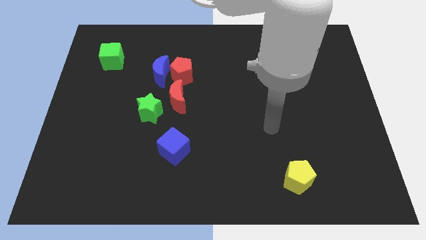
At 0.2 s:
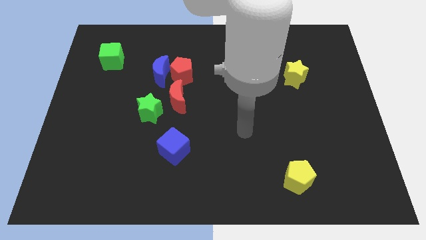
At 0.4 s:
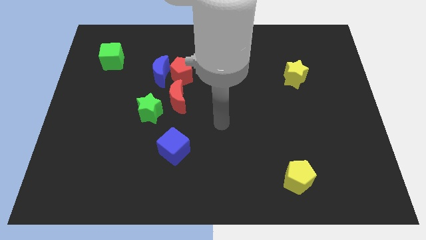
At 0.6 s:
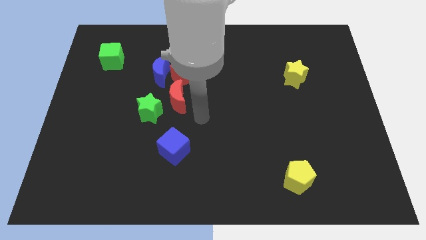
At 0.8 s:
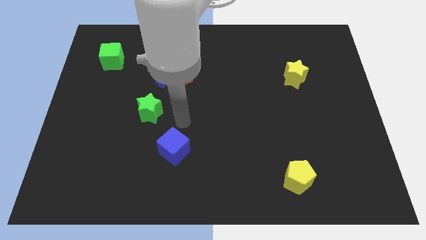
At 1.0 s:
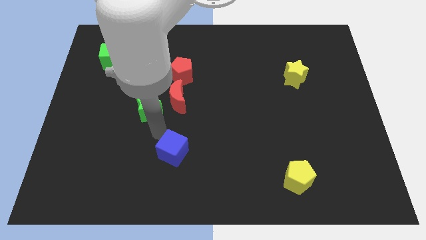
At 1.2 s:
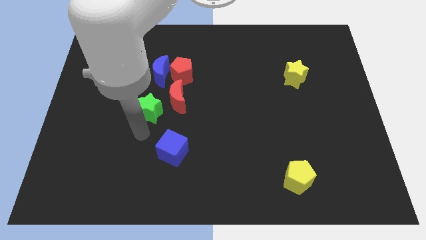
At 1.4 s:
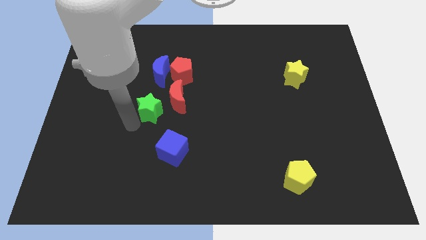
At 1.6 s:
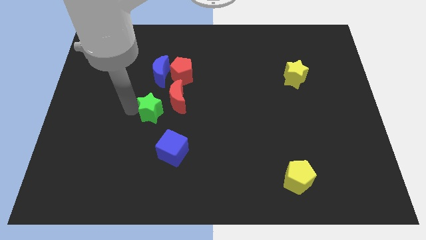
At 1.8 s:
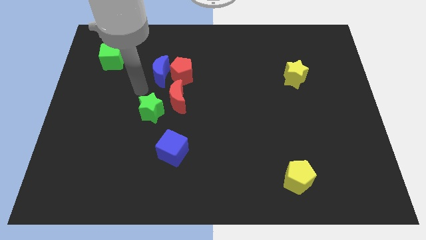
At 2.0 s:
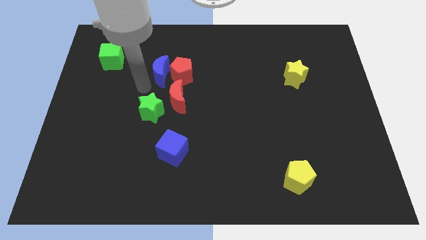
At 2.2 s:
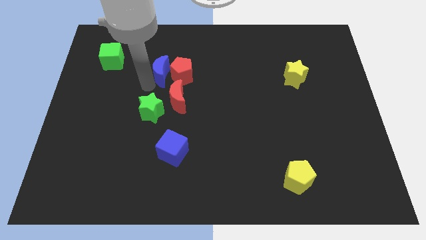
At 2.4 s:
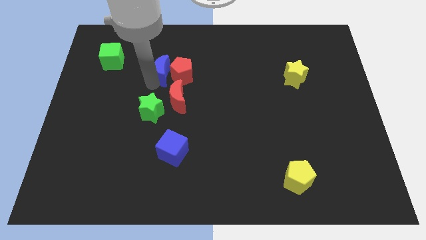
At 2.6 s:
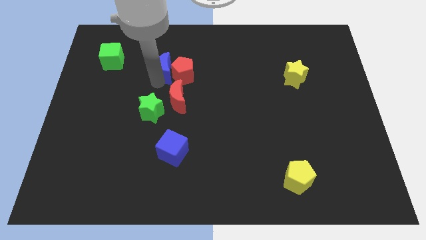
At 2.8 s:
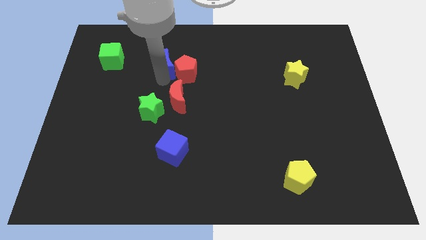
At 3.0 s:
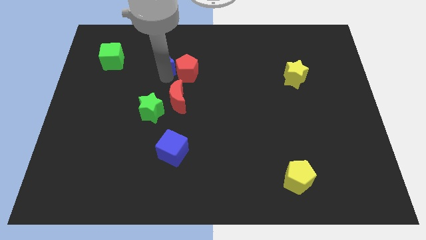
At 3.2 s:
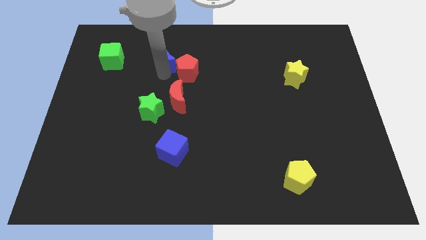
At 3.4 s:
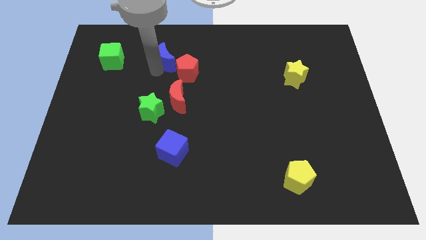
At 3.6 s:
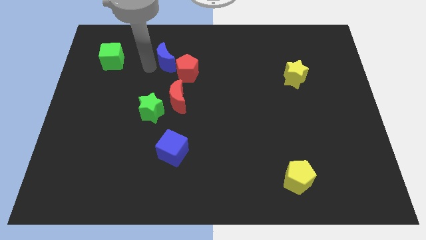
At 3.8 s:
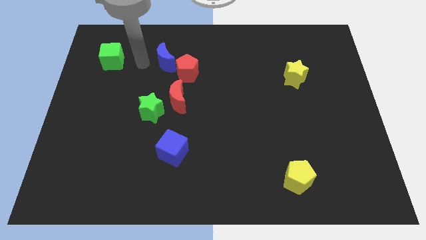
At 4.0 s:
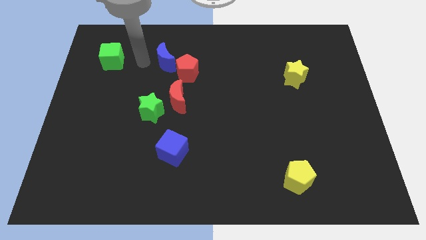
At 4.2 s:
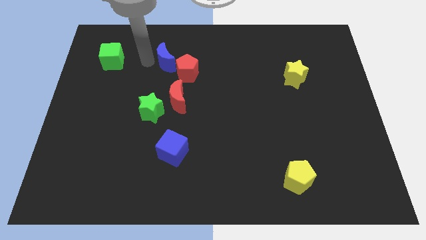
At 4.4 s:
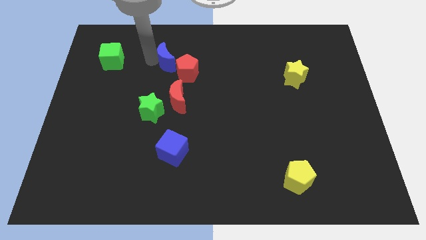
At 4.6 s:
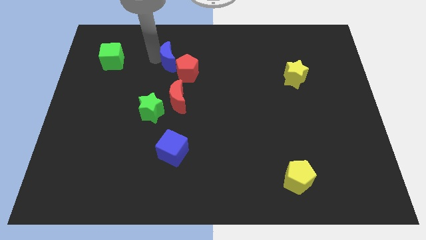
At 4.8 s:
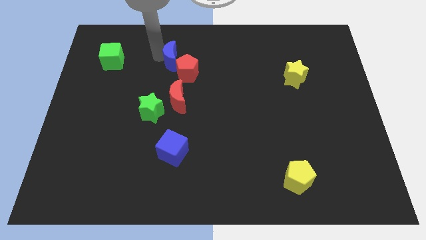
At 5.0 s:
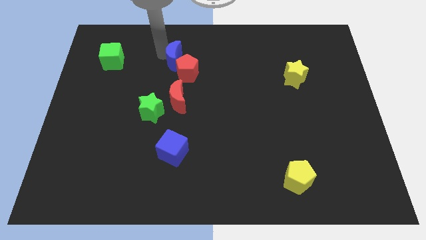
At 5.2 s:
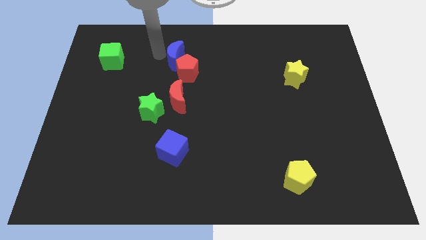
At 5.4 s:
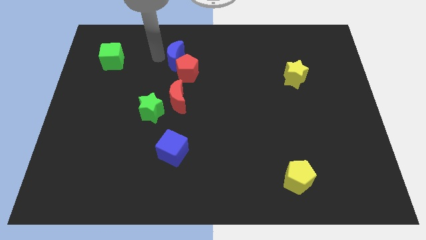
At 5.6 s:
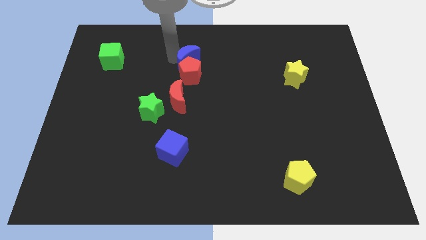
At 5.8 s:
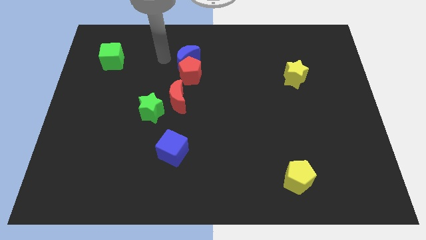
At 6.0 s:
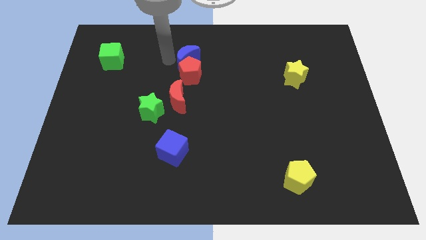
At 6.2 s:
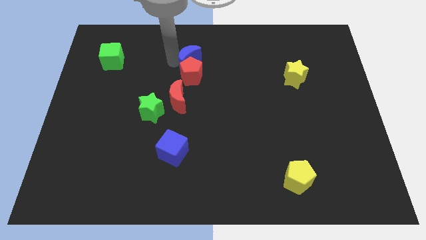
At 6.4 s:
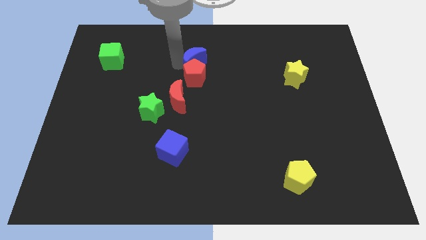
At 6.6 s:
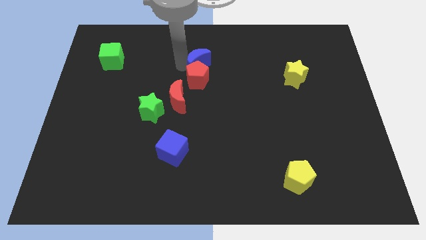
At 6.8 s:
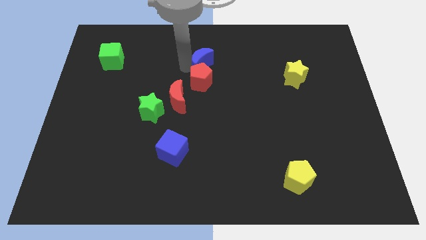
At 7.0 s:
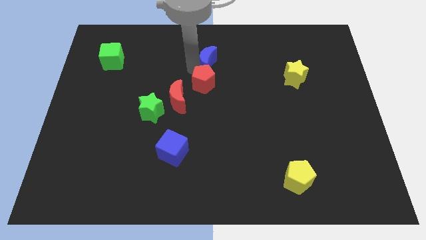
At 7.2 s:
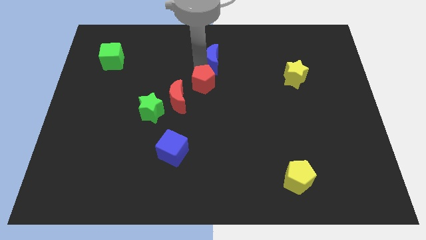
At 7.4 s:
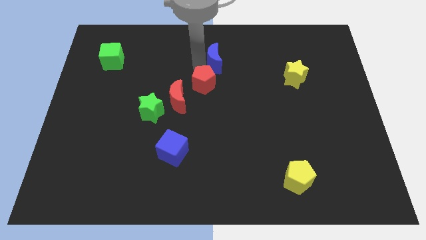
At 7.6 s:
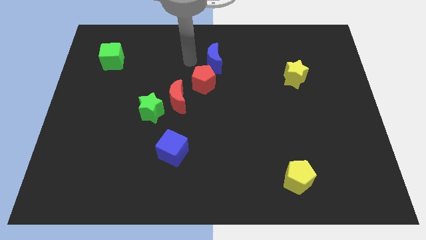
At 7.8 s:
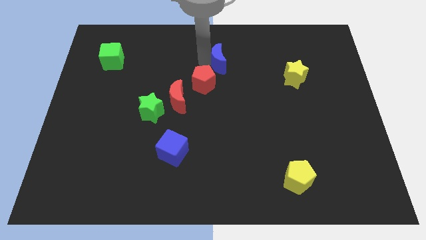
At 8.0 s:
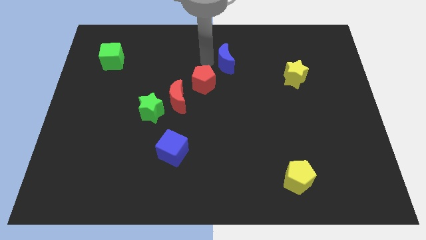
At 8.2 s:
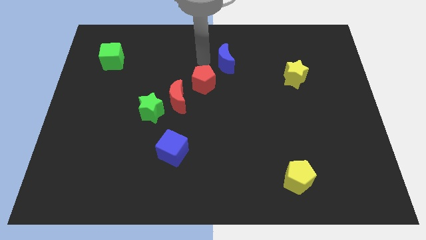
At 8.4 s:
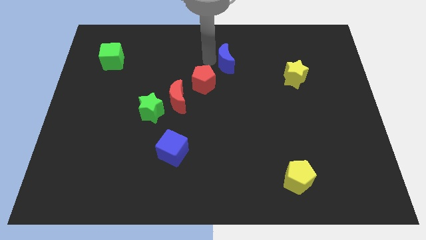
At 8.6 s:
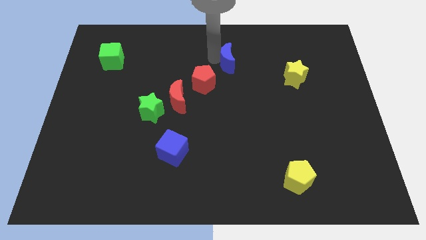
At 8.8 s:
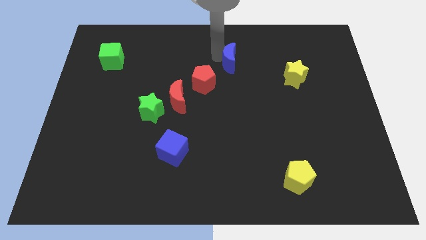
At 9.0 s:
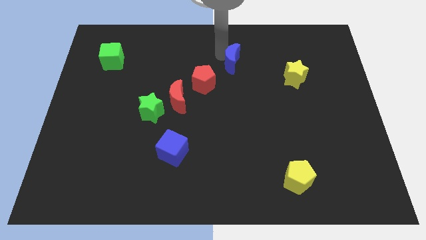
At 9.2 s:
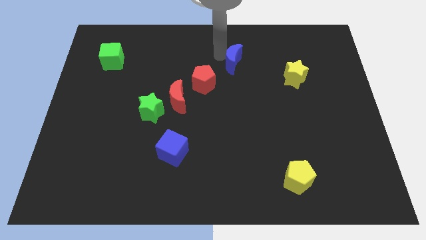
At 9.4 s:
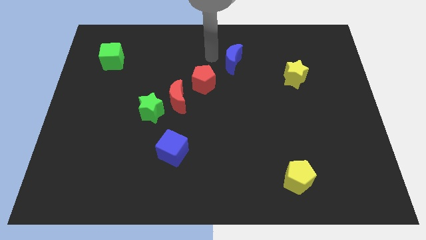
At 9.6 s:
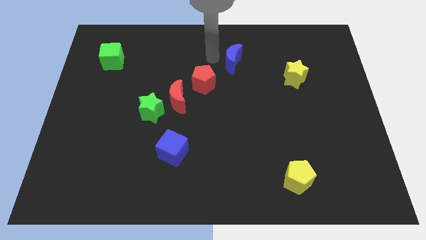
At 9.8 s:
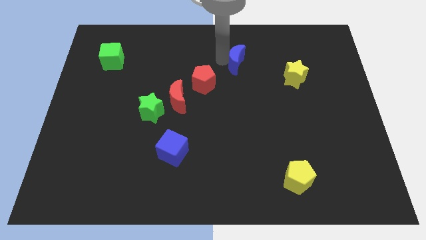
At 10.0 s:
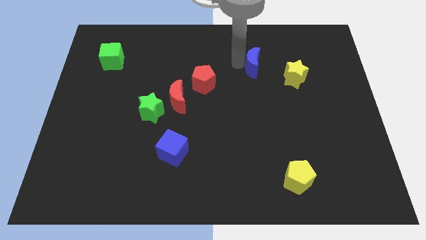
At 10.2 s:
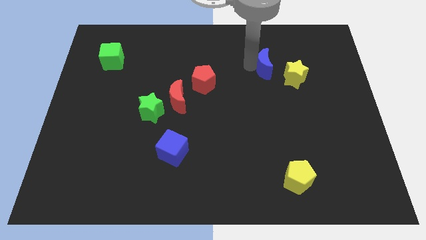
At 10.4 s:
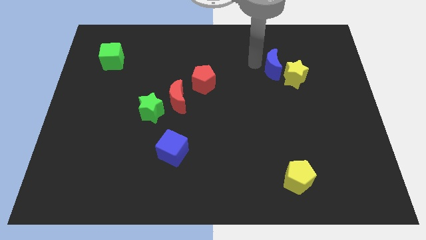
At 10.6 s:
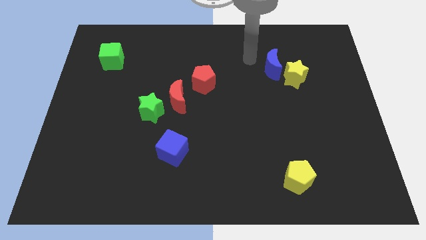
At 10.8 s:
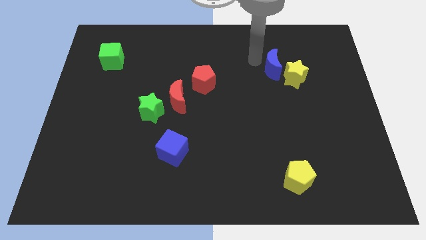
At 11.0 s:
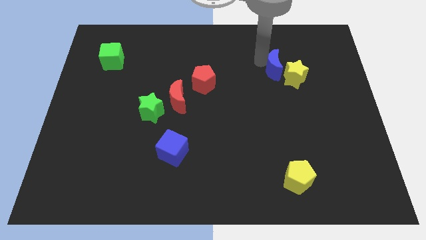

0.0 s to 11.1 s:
push the blue moon to the yellow star

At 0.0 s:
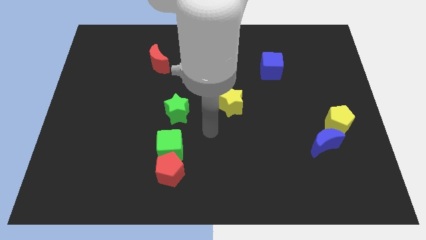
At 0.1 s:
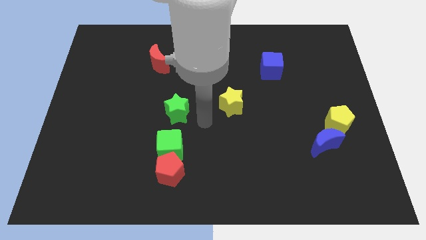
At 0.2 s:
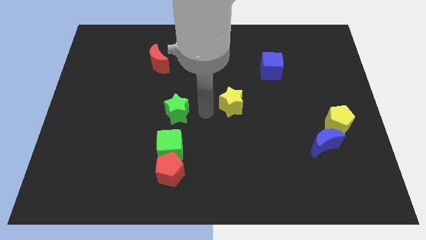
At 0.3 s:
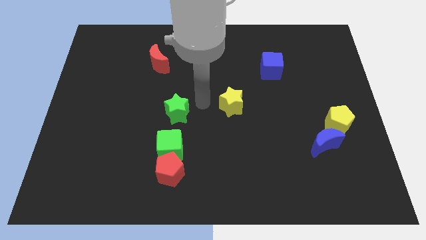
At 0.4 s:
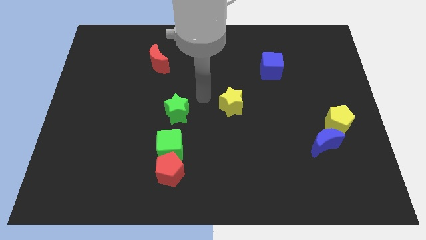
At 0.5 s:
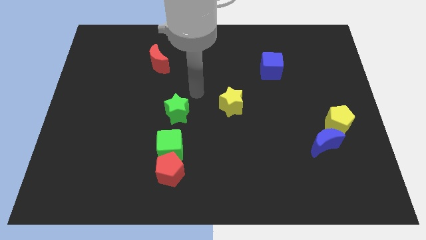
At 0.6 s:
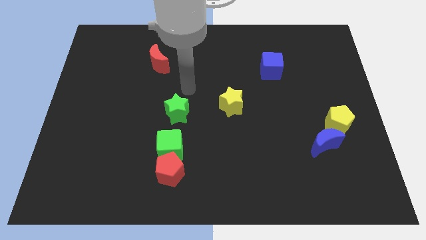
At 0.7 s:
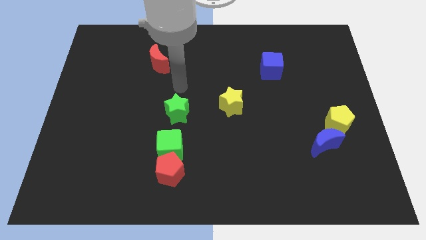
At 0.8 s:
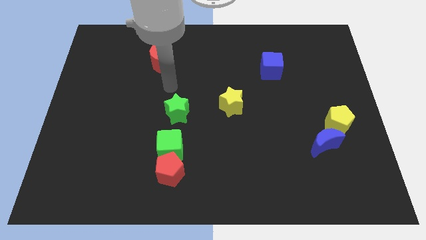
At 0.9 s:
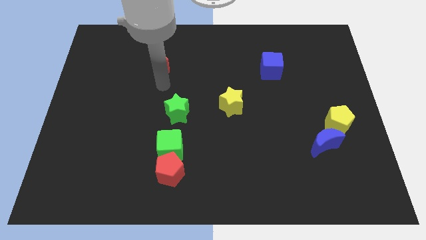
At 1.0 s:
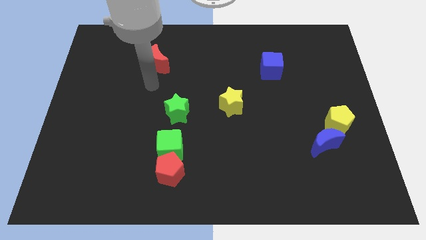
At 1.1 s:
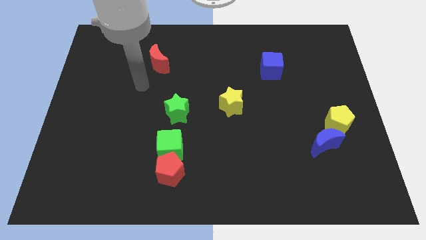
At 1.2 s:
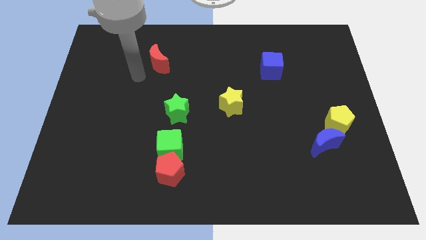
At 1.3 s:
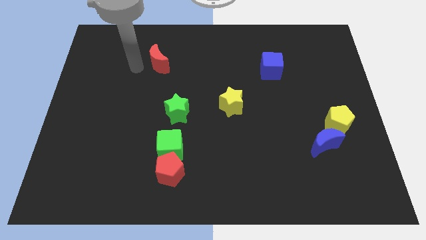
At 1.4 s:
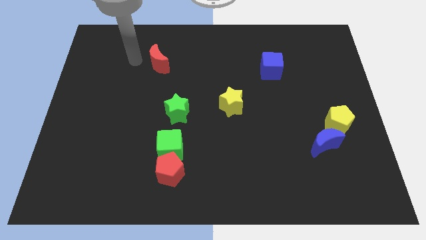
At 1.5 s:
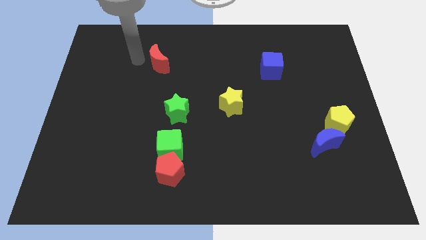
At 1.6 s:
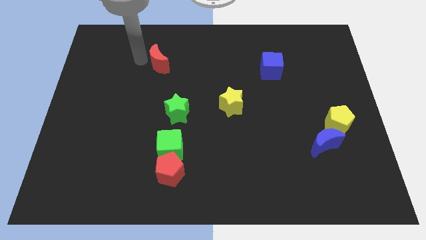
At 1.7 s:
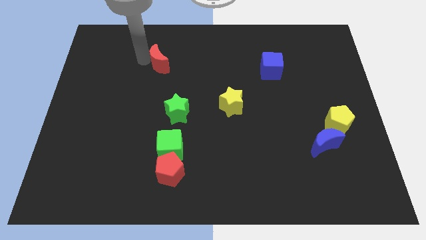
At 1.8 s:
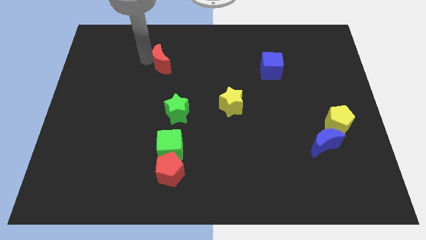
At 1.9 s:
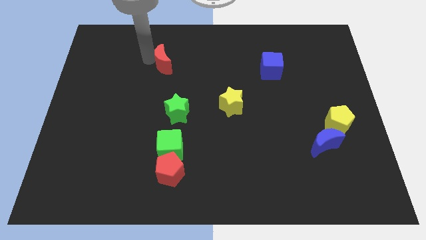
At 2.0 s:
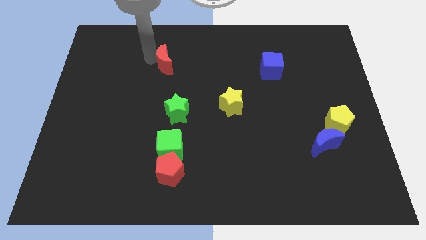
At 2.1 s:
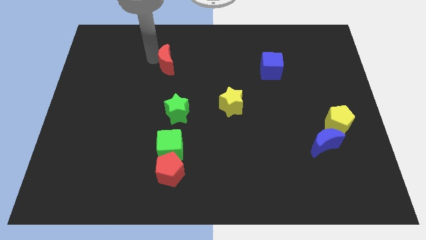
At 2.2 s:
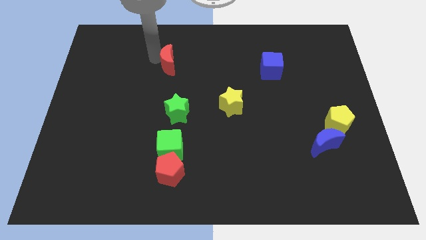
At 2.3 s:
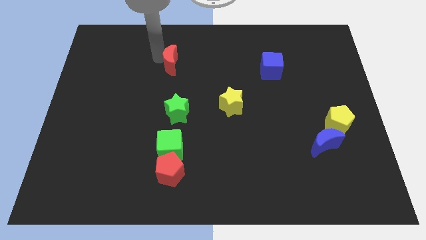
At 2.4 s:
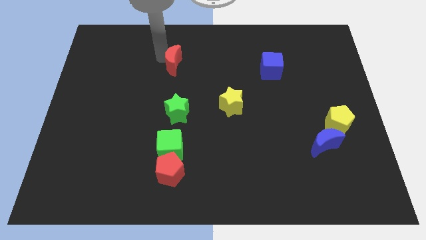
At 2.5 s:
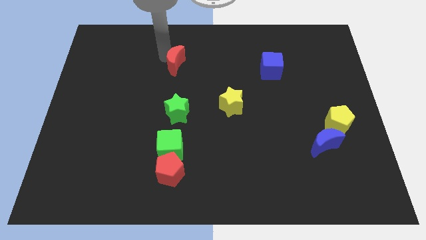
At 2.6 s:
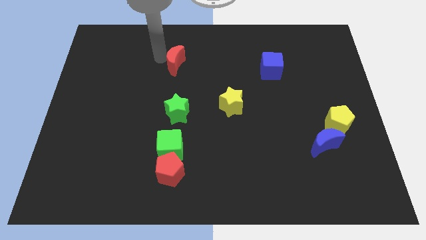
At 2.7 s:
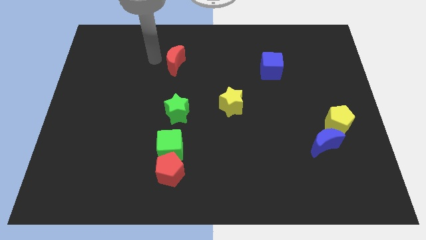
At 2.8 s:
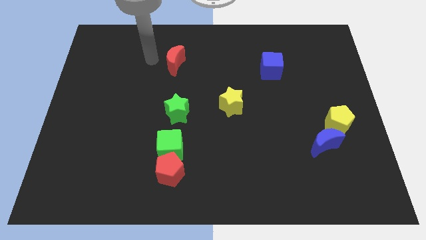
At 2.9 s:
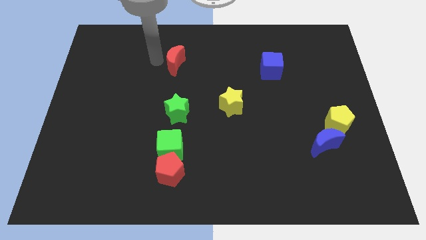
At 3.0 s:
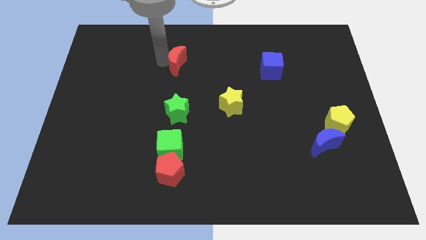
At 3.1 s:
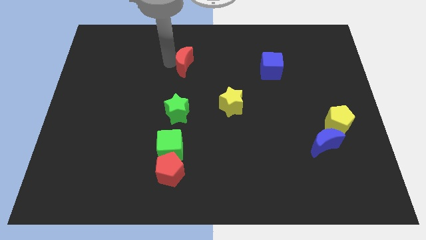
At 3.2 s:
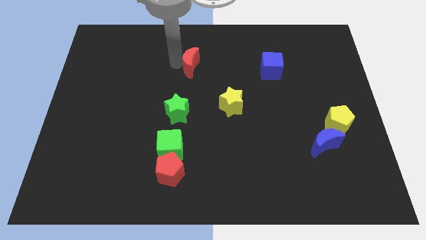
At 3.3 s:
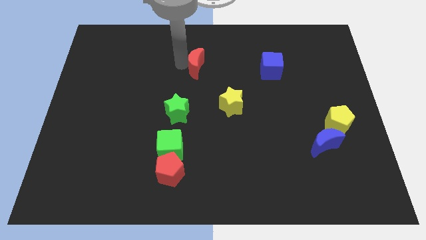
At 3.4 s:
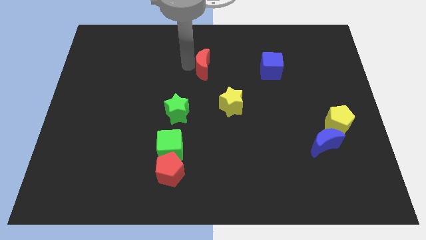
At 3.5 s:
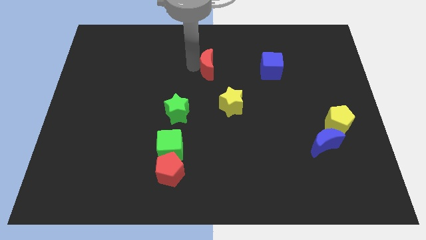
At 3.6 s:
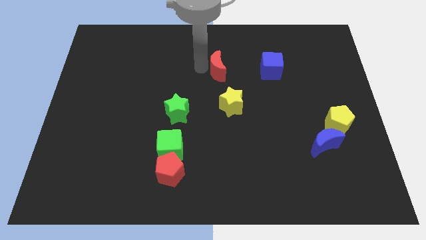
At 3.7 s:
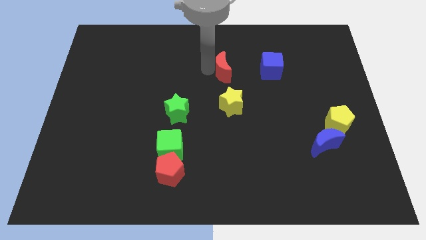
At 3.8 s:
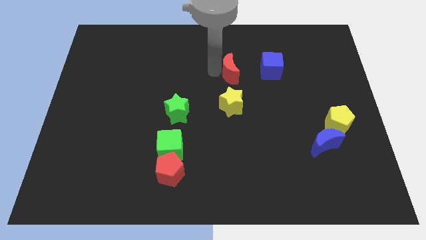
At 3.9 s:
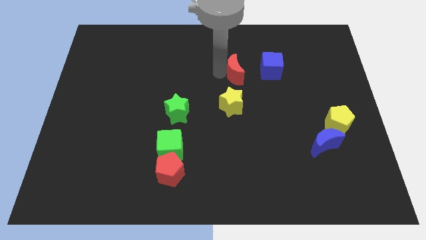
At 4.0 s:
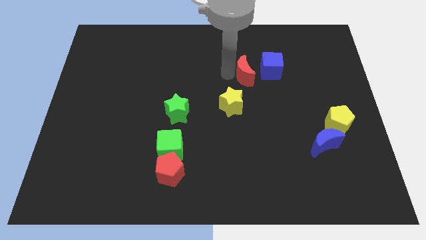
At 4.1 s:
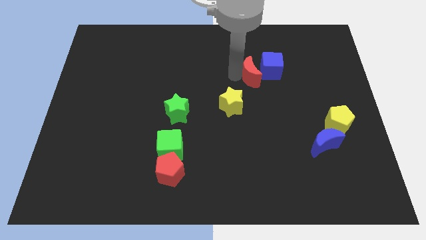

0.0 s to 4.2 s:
slide the red moon towards the blue cube
